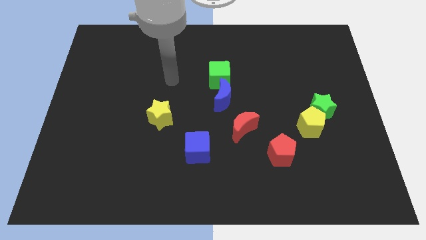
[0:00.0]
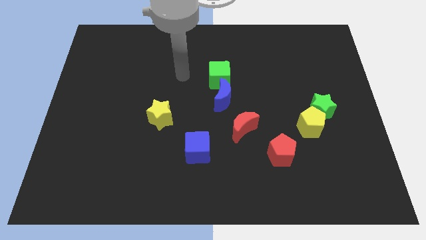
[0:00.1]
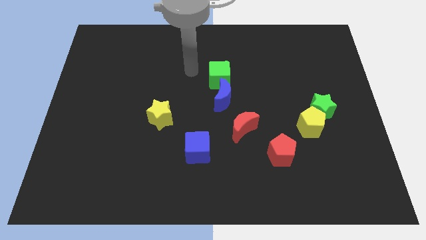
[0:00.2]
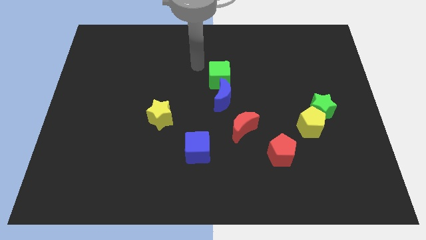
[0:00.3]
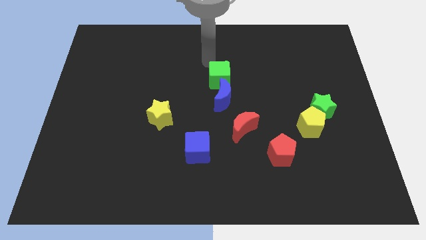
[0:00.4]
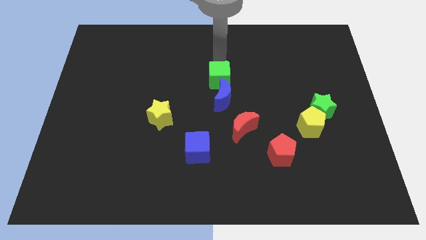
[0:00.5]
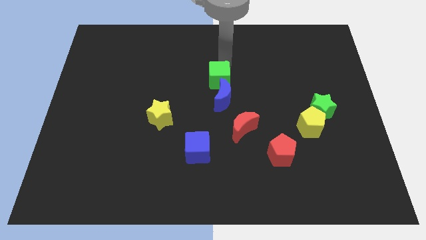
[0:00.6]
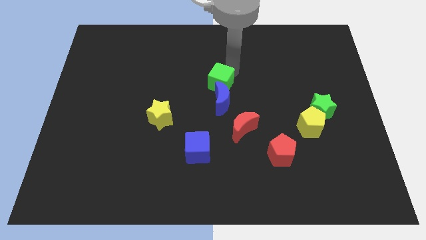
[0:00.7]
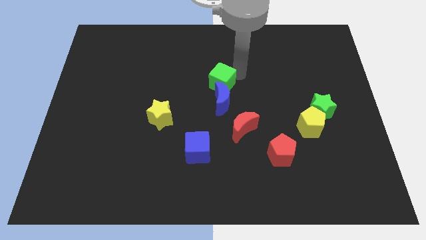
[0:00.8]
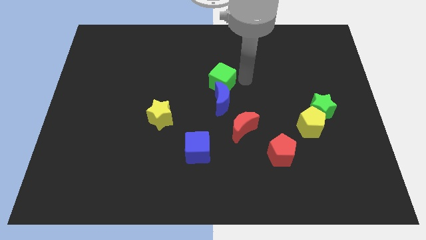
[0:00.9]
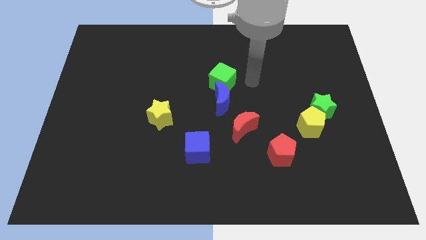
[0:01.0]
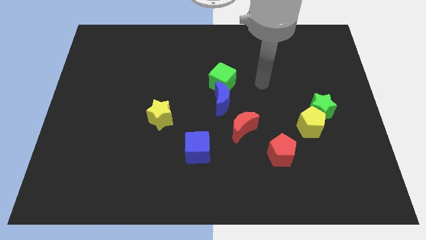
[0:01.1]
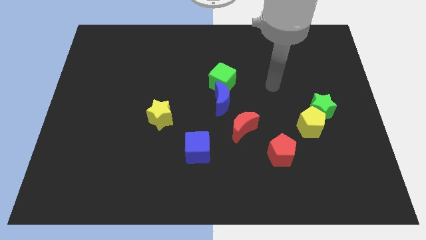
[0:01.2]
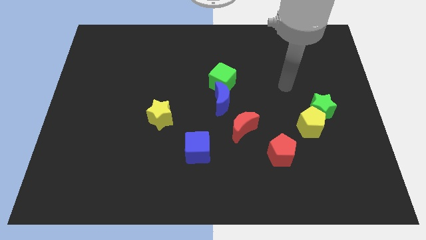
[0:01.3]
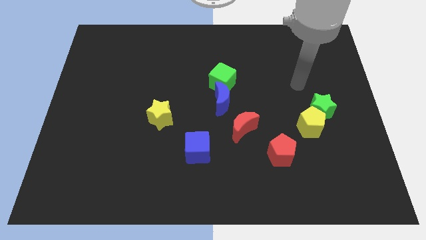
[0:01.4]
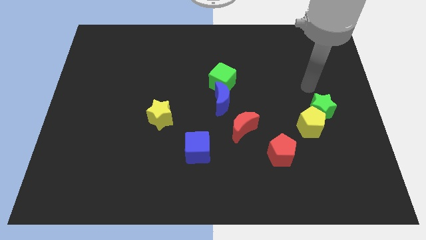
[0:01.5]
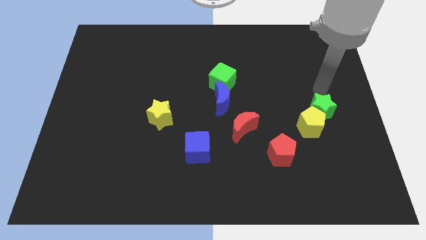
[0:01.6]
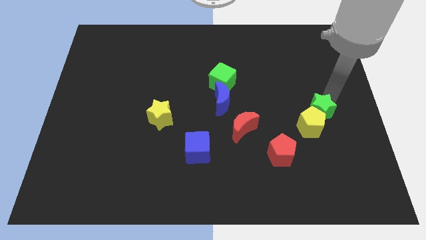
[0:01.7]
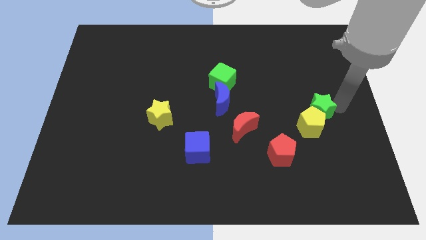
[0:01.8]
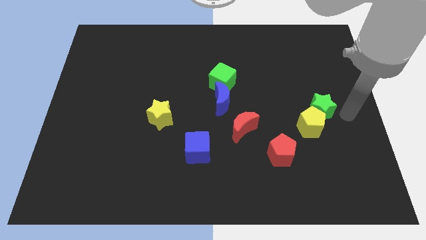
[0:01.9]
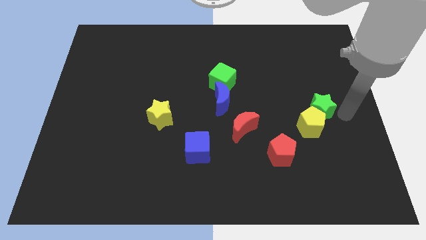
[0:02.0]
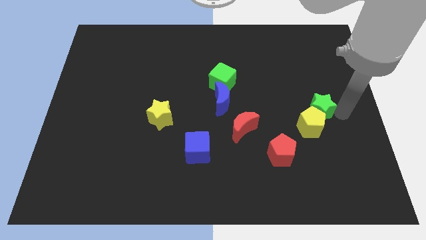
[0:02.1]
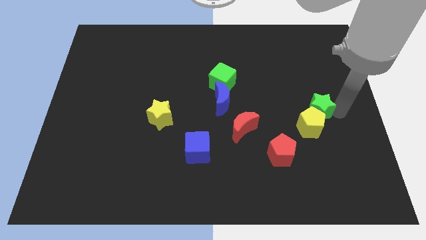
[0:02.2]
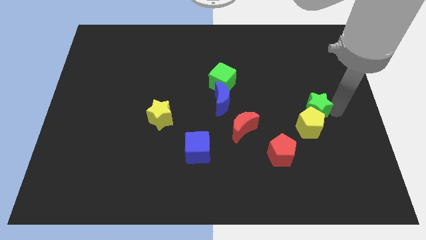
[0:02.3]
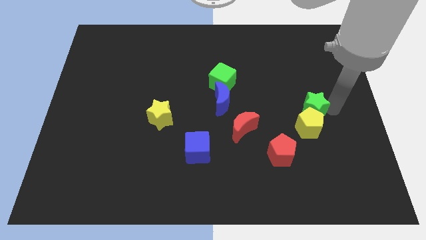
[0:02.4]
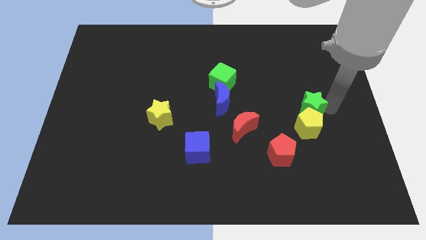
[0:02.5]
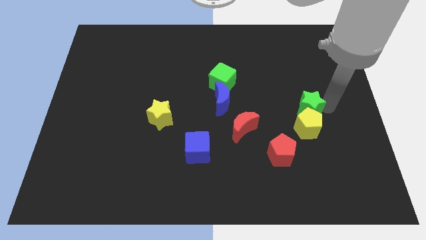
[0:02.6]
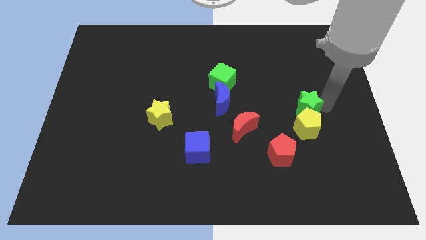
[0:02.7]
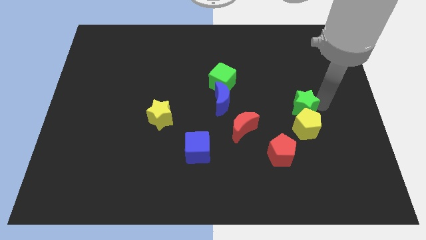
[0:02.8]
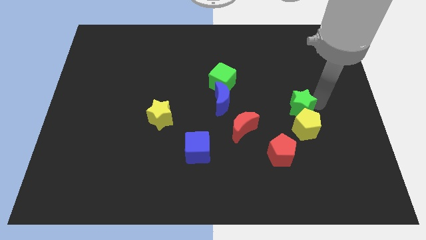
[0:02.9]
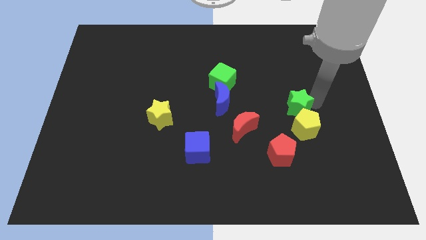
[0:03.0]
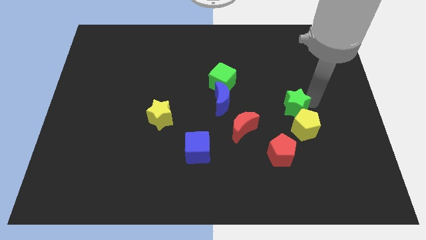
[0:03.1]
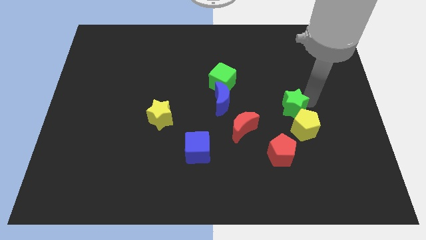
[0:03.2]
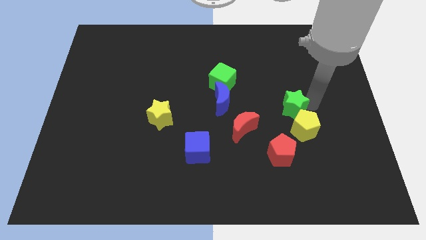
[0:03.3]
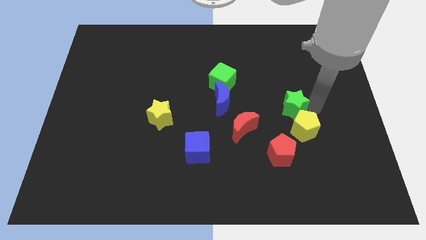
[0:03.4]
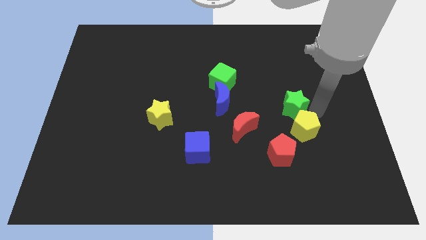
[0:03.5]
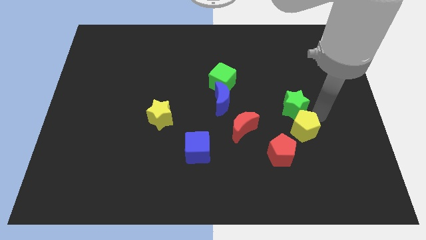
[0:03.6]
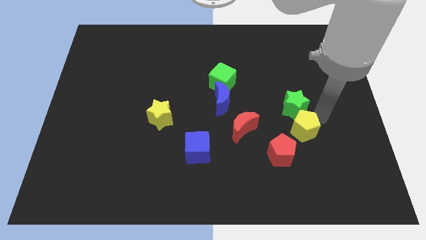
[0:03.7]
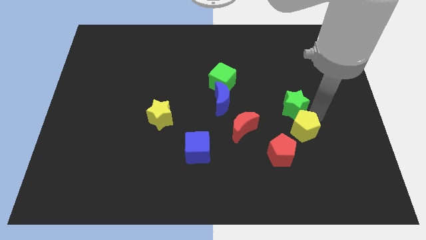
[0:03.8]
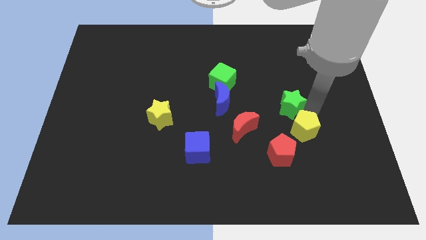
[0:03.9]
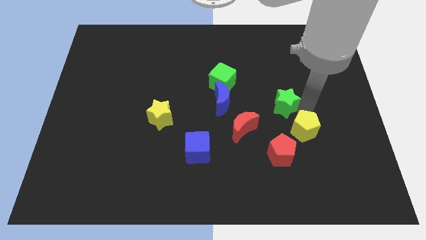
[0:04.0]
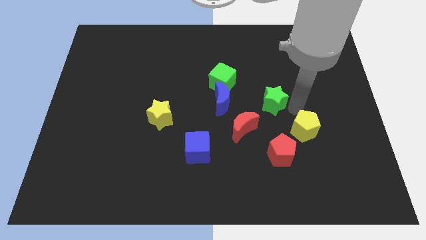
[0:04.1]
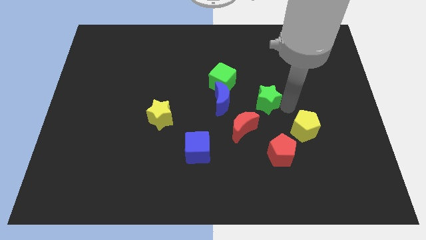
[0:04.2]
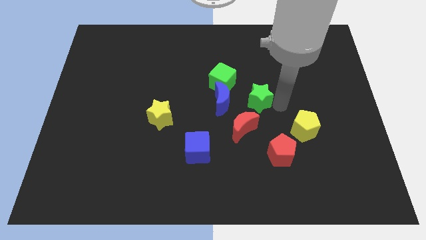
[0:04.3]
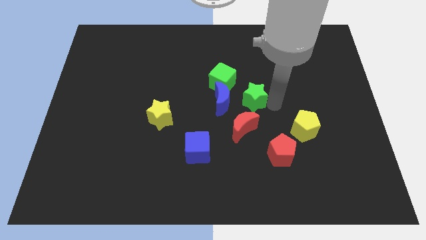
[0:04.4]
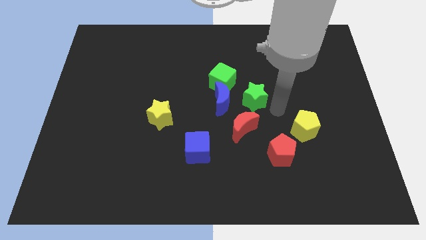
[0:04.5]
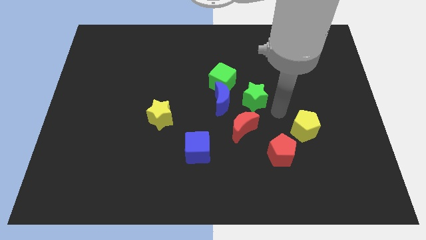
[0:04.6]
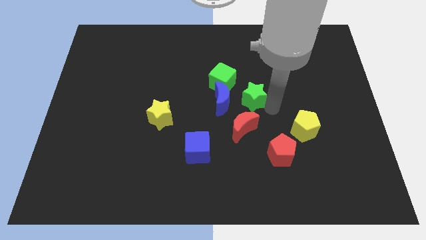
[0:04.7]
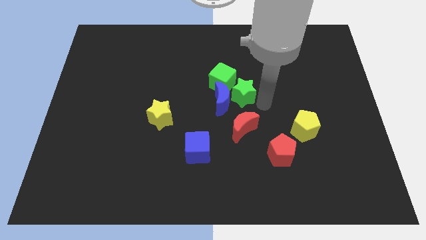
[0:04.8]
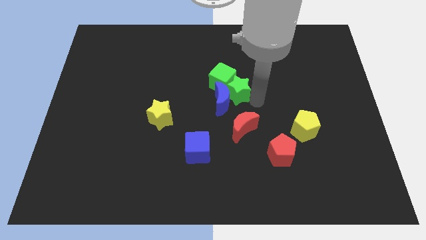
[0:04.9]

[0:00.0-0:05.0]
slide the green star to the green cube

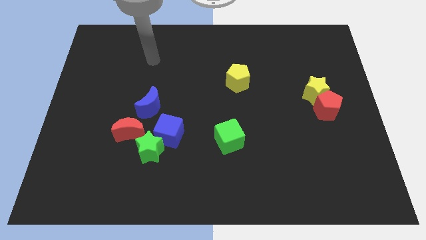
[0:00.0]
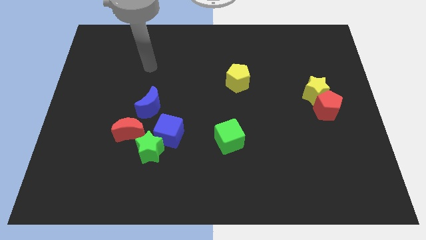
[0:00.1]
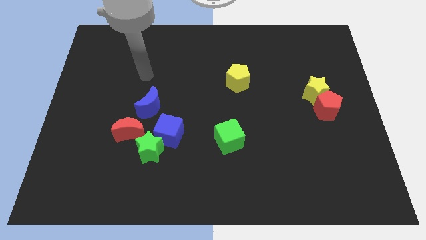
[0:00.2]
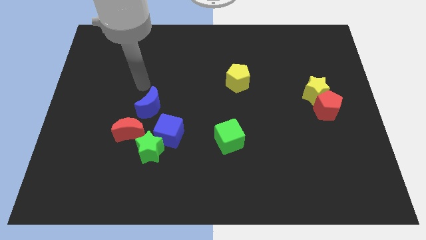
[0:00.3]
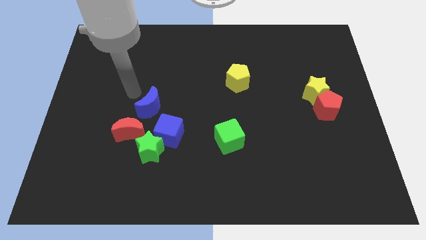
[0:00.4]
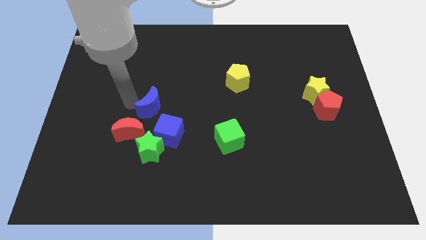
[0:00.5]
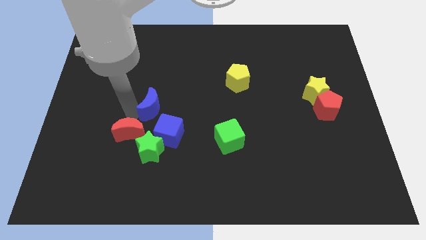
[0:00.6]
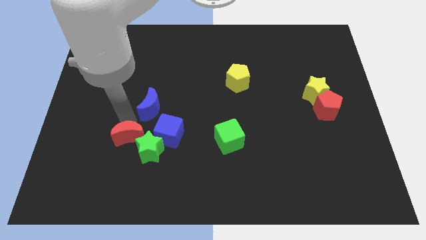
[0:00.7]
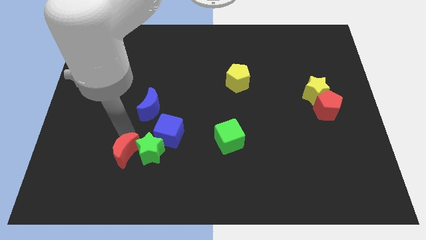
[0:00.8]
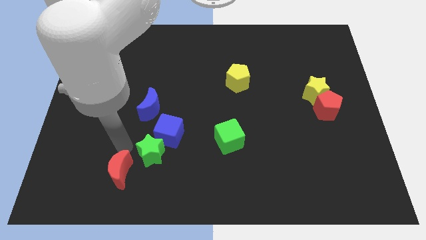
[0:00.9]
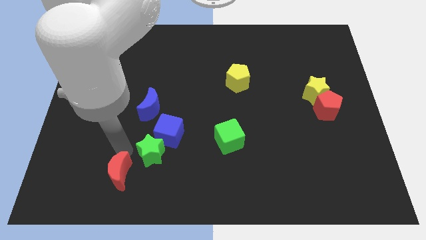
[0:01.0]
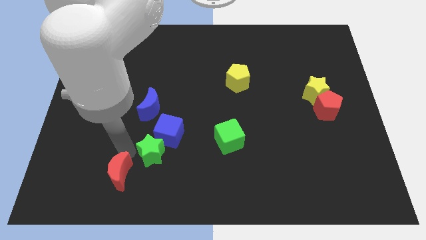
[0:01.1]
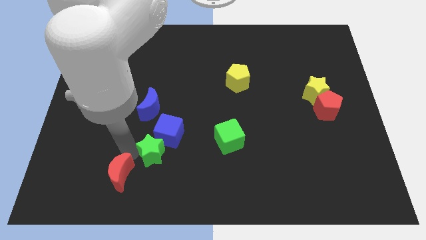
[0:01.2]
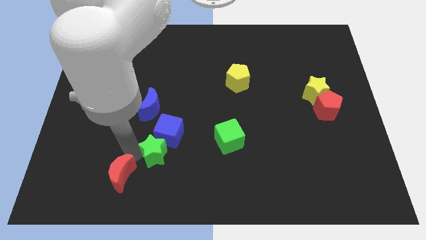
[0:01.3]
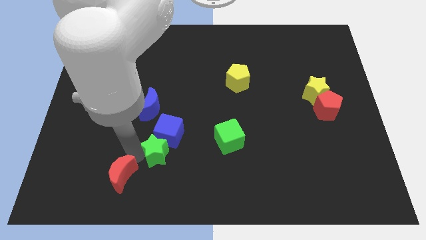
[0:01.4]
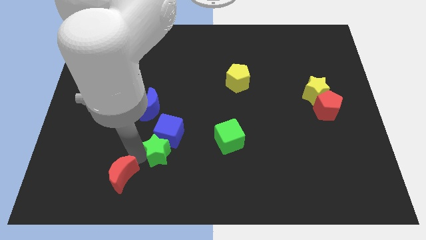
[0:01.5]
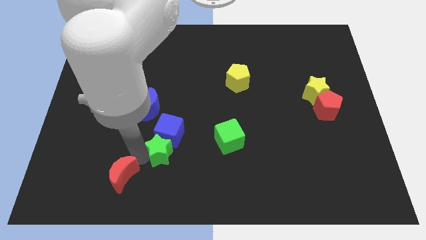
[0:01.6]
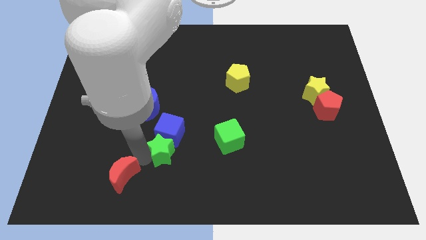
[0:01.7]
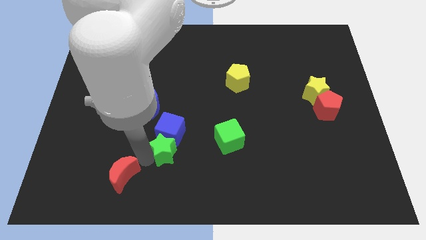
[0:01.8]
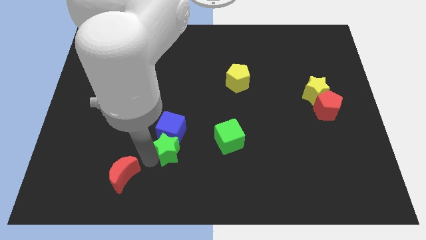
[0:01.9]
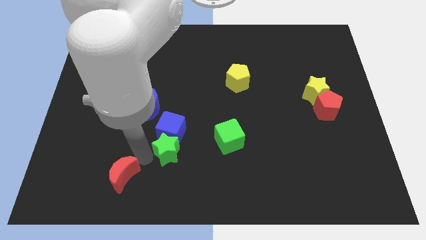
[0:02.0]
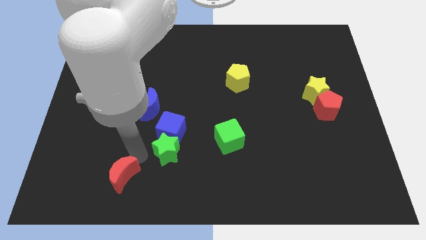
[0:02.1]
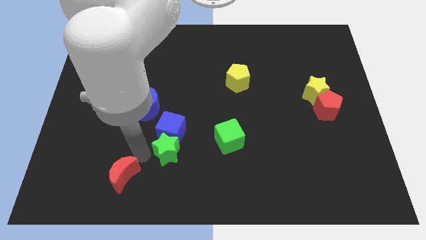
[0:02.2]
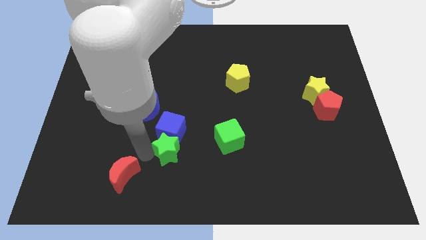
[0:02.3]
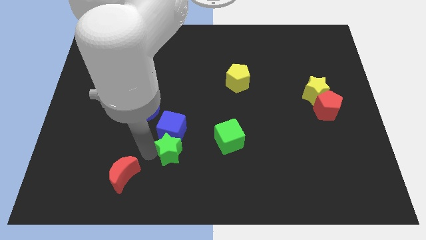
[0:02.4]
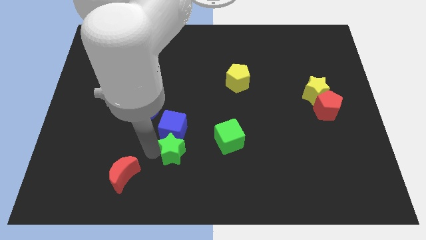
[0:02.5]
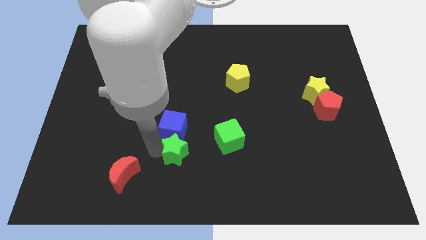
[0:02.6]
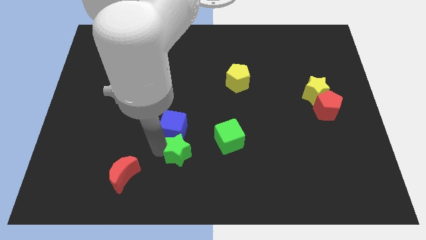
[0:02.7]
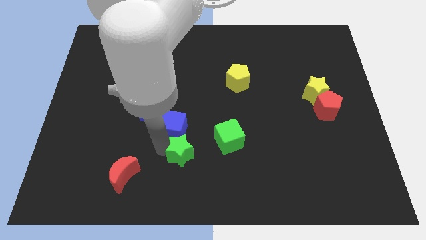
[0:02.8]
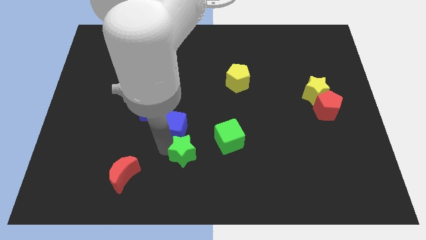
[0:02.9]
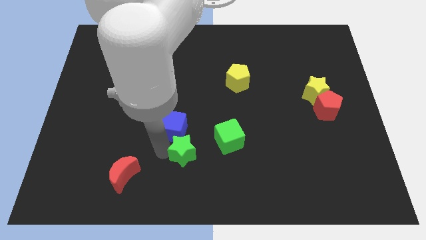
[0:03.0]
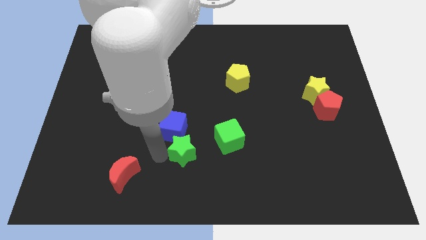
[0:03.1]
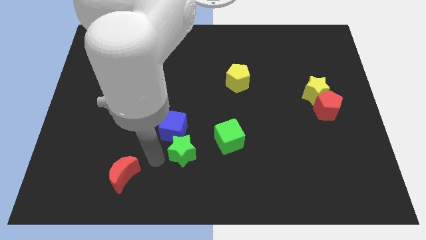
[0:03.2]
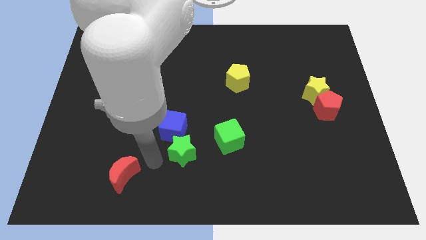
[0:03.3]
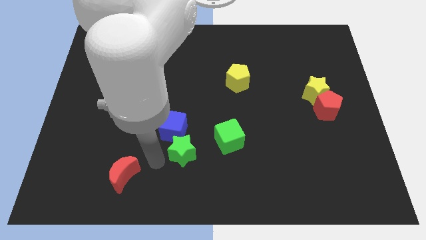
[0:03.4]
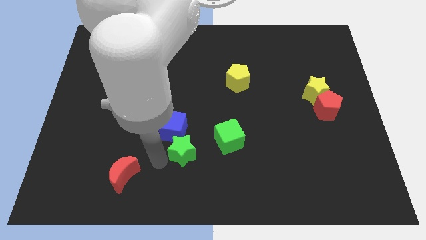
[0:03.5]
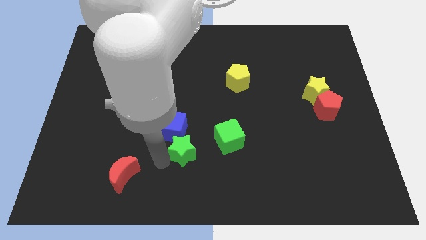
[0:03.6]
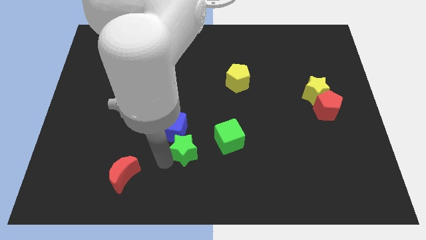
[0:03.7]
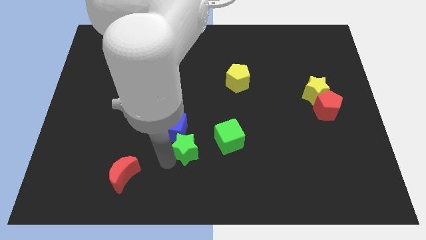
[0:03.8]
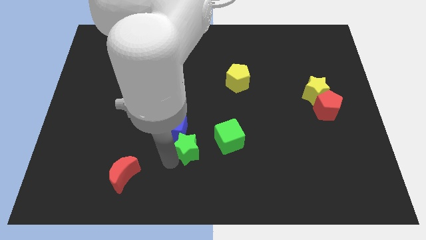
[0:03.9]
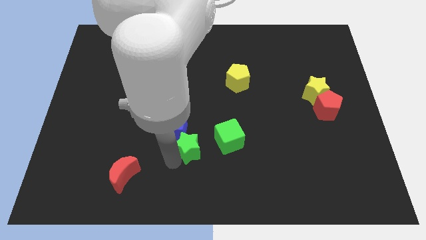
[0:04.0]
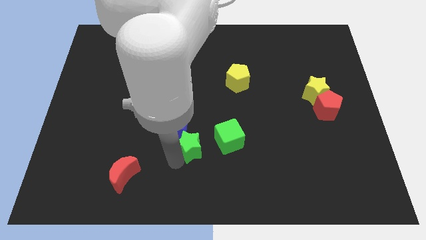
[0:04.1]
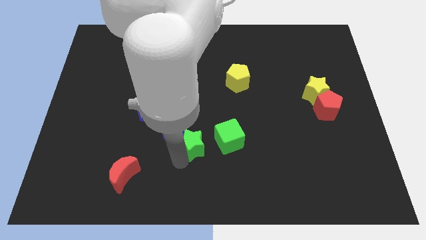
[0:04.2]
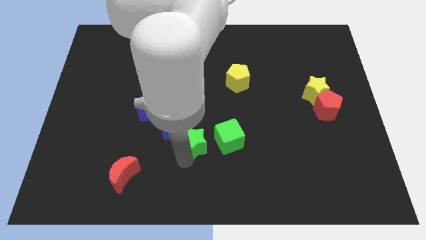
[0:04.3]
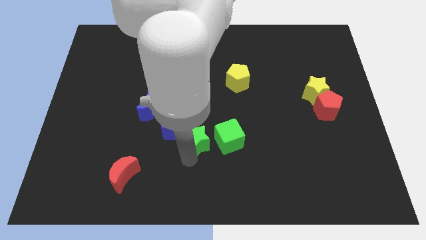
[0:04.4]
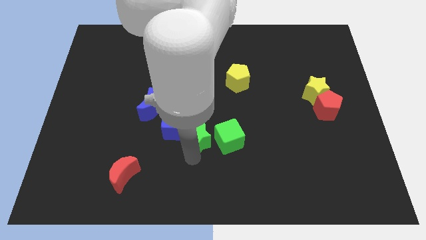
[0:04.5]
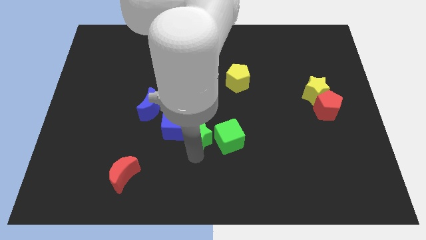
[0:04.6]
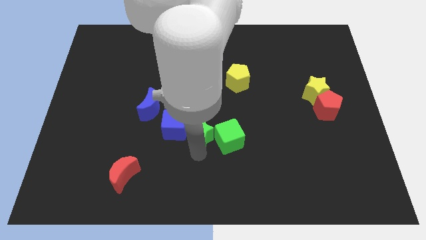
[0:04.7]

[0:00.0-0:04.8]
put the green star towards the green cube
